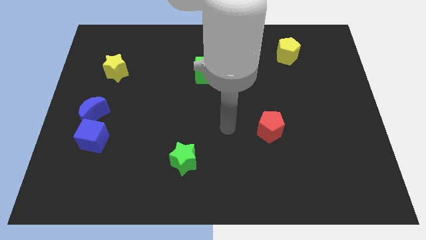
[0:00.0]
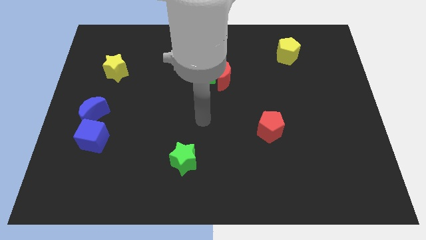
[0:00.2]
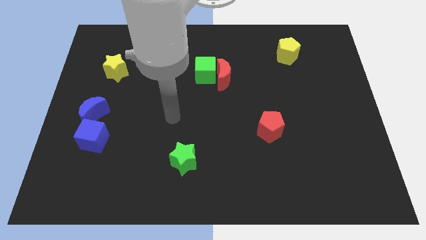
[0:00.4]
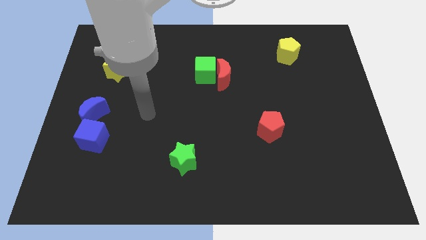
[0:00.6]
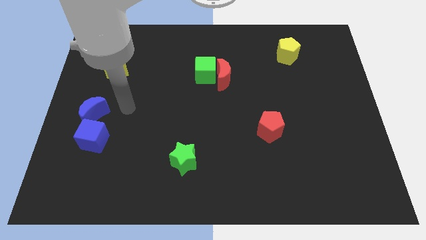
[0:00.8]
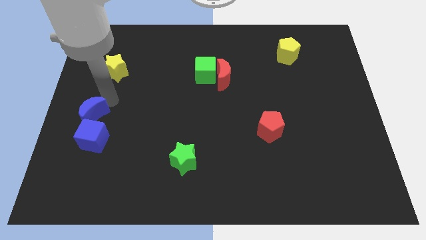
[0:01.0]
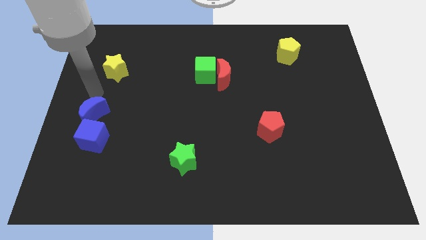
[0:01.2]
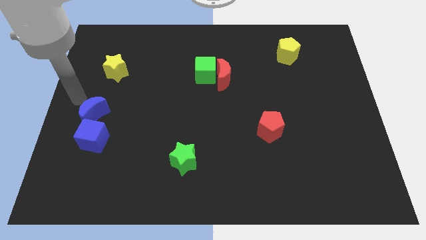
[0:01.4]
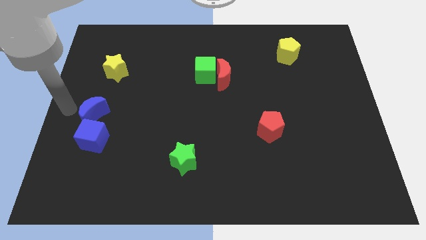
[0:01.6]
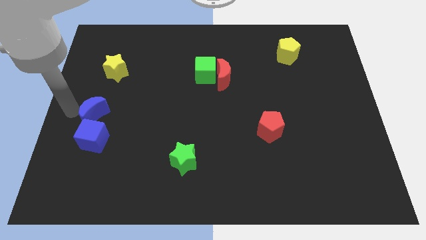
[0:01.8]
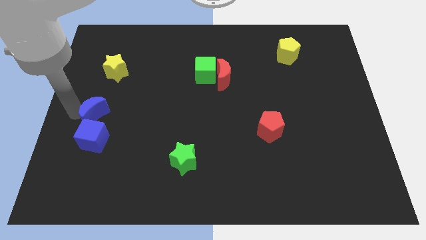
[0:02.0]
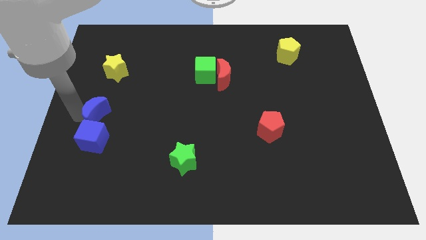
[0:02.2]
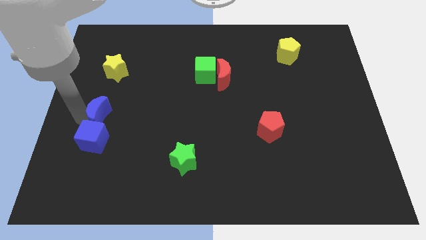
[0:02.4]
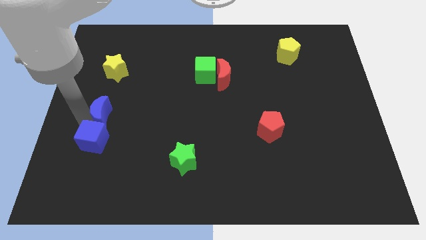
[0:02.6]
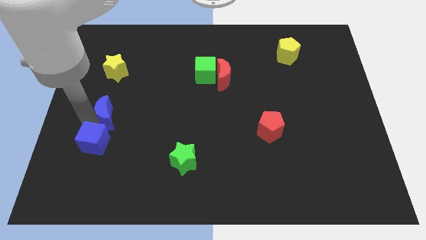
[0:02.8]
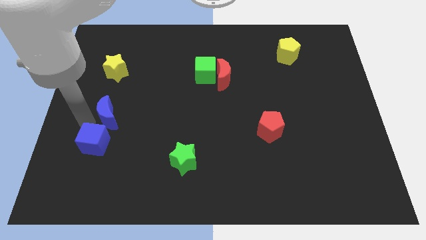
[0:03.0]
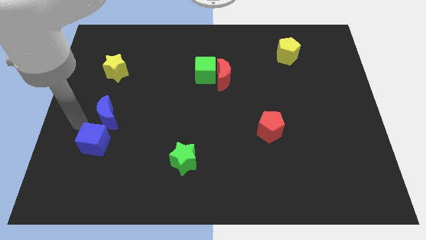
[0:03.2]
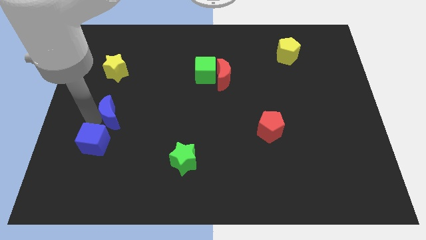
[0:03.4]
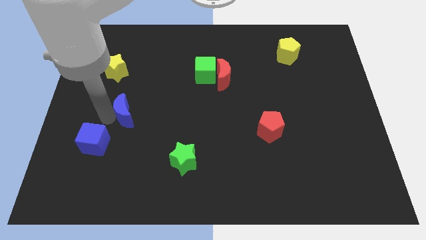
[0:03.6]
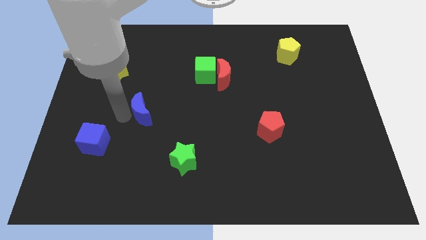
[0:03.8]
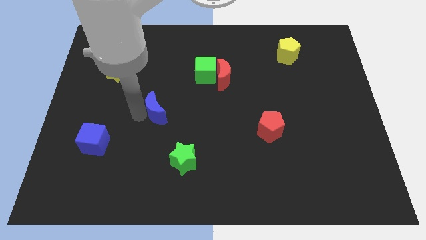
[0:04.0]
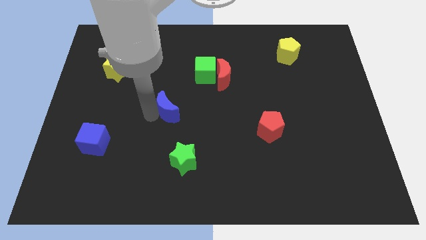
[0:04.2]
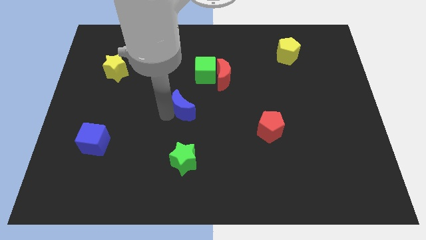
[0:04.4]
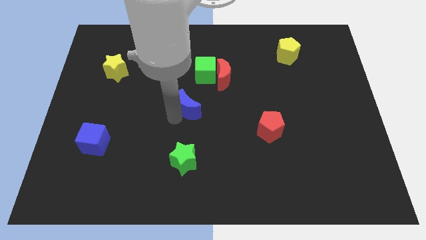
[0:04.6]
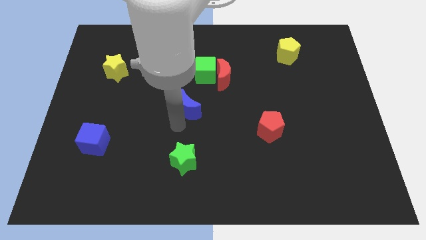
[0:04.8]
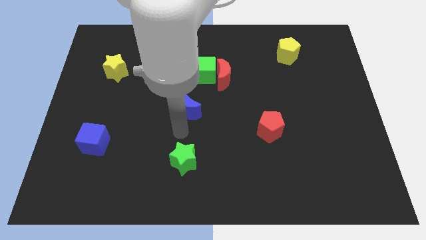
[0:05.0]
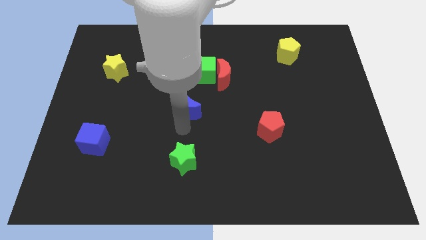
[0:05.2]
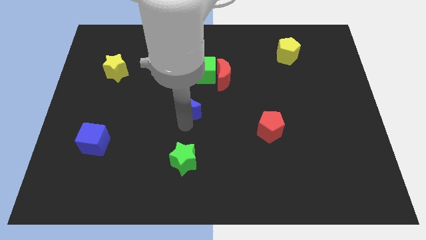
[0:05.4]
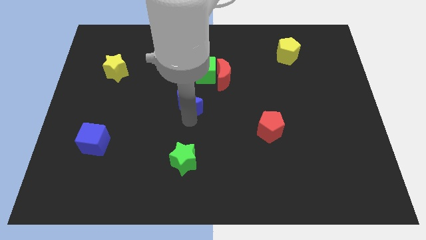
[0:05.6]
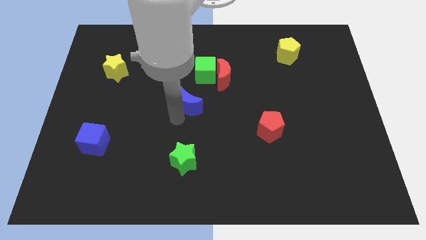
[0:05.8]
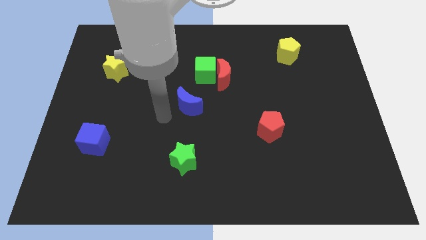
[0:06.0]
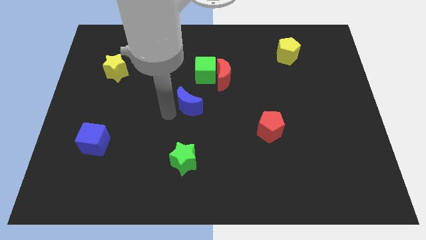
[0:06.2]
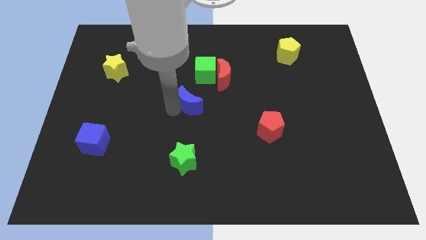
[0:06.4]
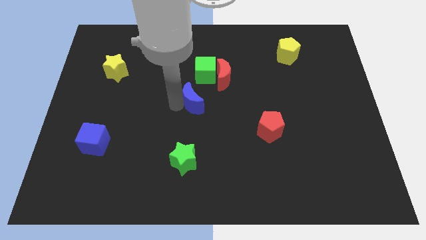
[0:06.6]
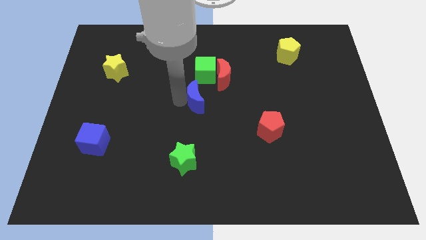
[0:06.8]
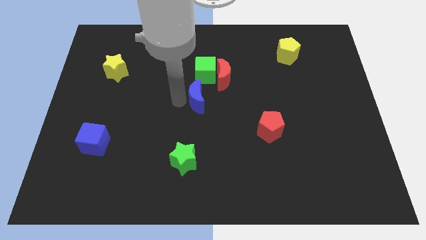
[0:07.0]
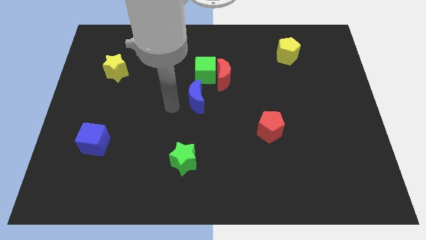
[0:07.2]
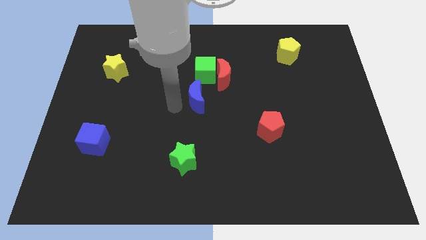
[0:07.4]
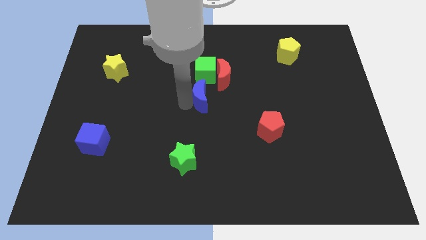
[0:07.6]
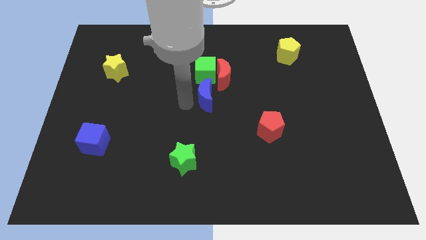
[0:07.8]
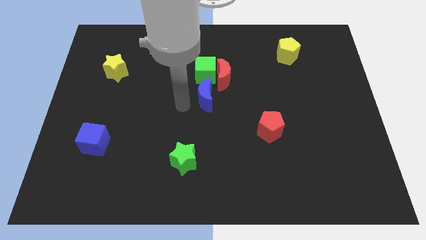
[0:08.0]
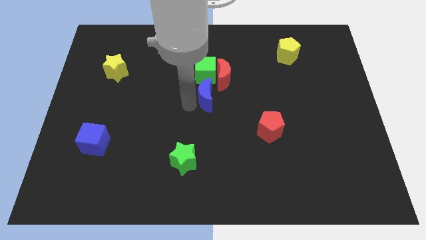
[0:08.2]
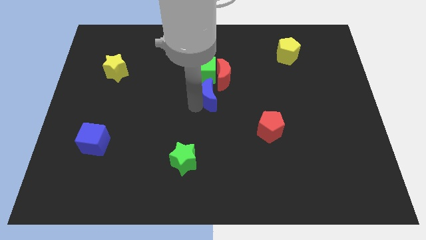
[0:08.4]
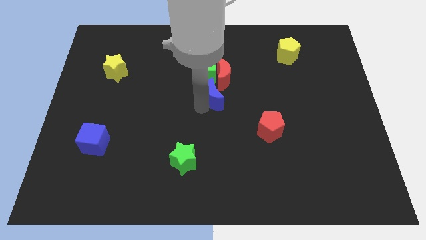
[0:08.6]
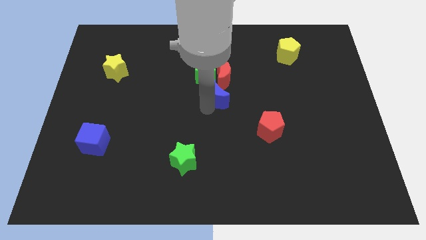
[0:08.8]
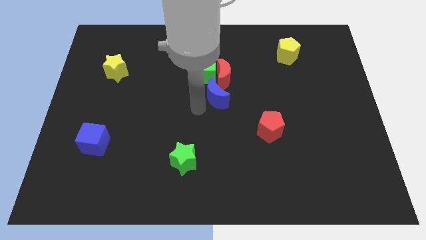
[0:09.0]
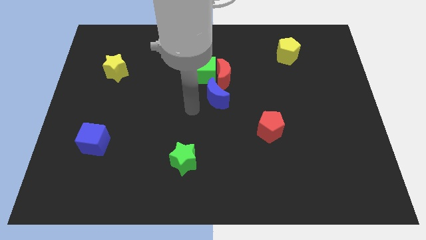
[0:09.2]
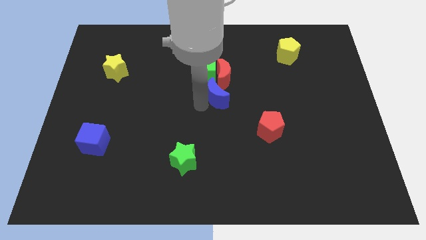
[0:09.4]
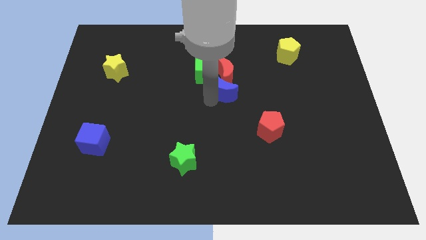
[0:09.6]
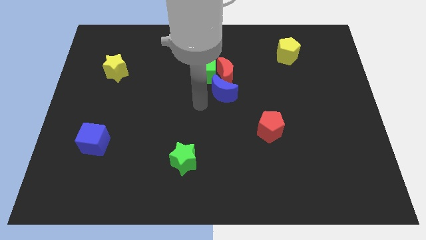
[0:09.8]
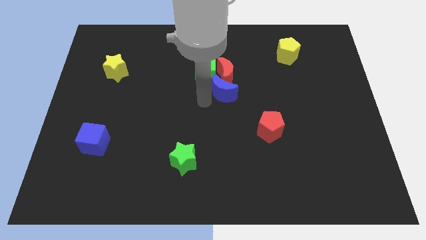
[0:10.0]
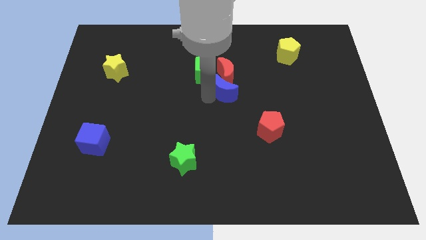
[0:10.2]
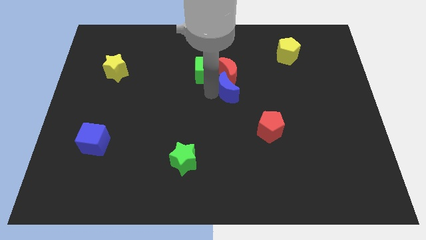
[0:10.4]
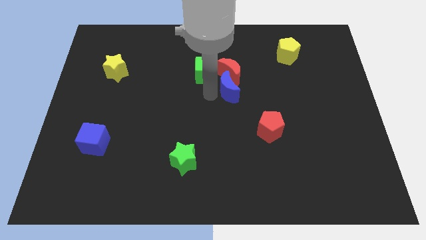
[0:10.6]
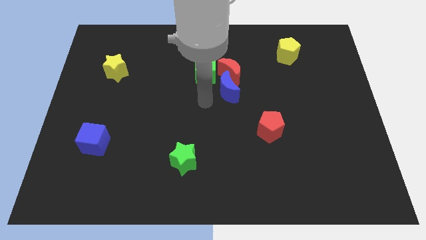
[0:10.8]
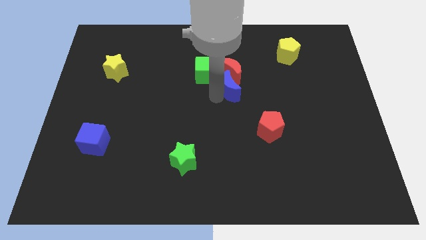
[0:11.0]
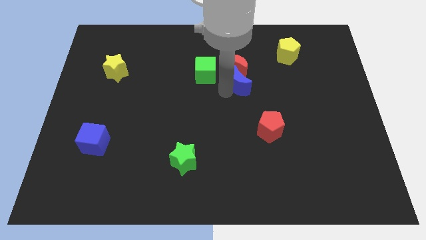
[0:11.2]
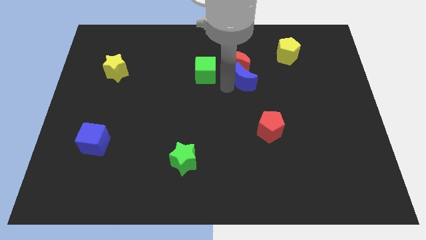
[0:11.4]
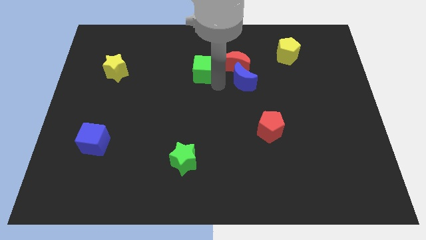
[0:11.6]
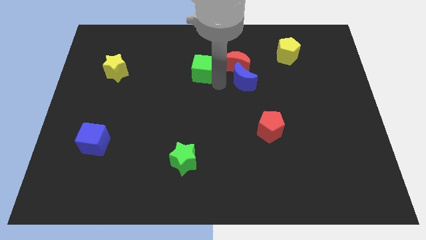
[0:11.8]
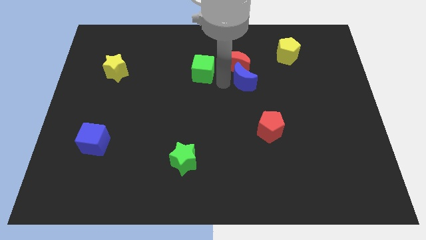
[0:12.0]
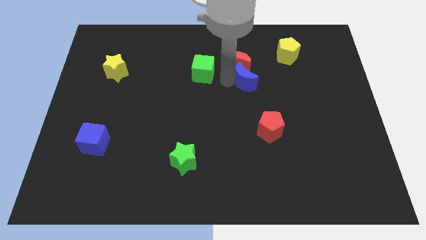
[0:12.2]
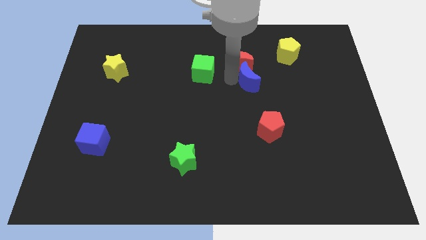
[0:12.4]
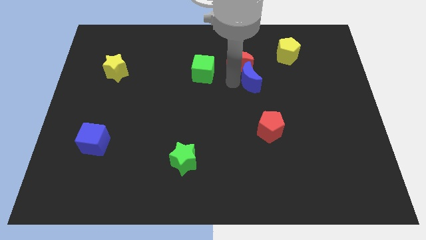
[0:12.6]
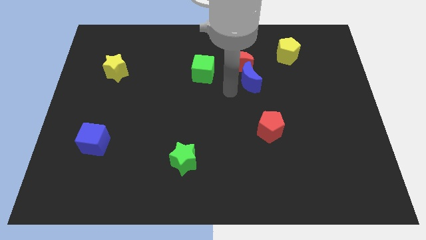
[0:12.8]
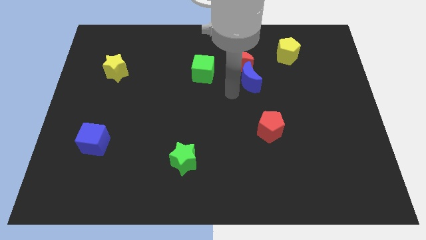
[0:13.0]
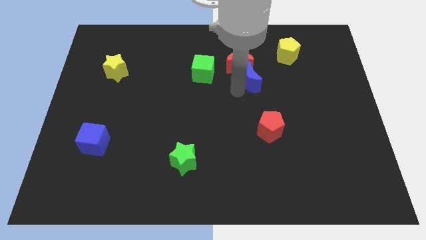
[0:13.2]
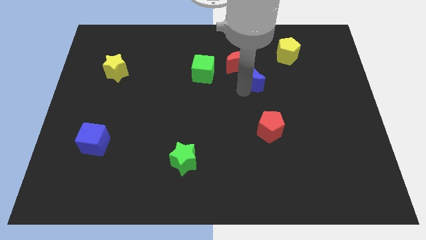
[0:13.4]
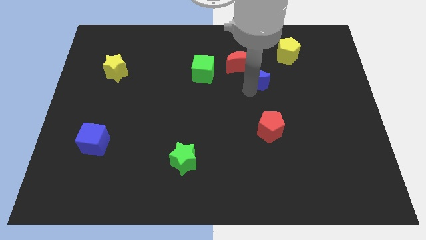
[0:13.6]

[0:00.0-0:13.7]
push the blue moon diagonally down and to the left of the yellow pentagon

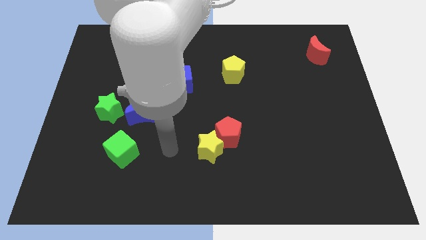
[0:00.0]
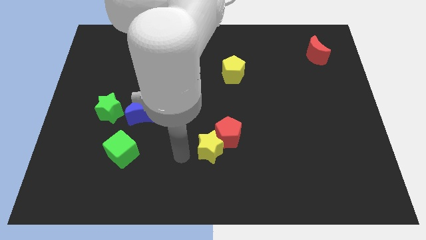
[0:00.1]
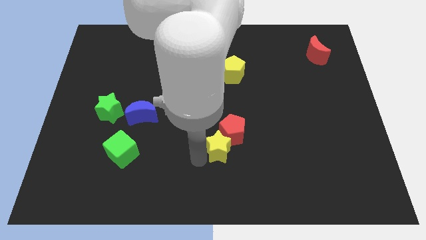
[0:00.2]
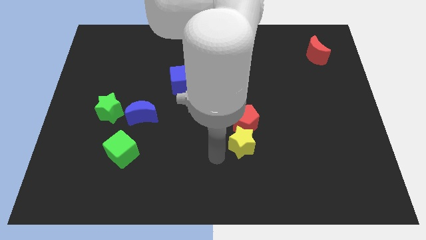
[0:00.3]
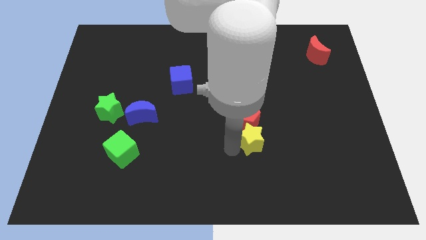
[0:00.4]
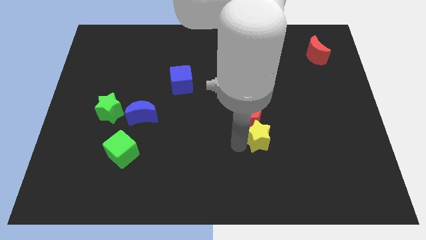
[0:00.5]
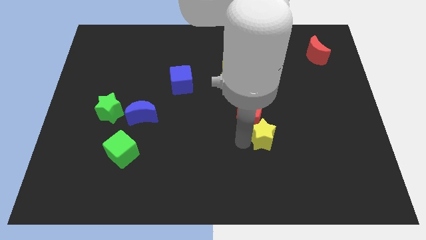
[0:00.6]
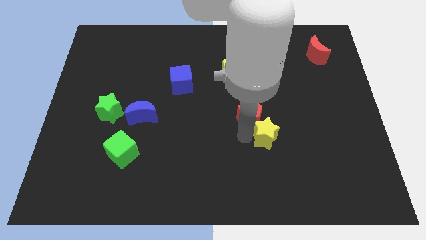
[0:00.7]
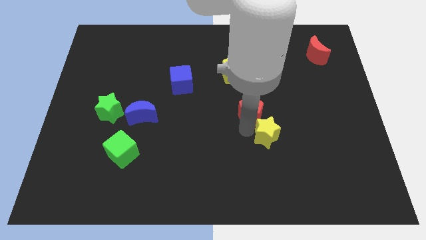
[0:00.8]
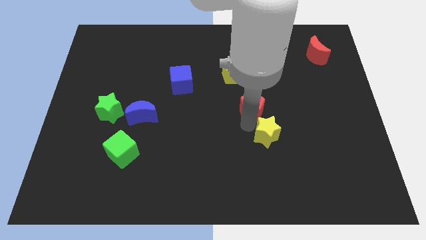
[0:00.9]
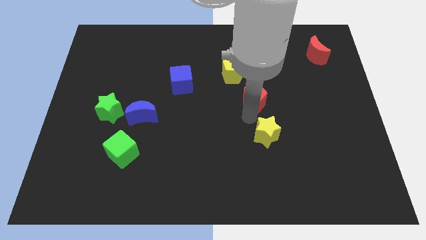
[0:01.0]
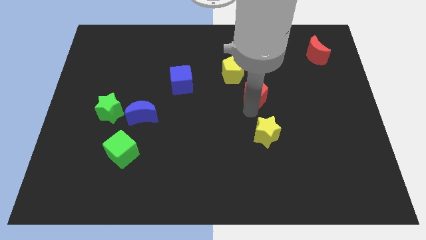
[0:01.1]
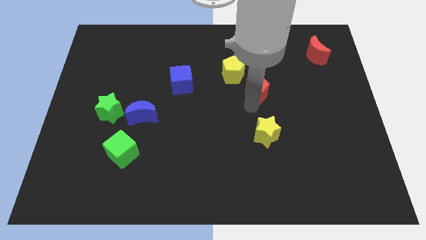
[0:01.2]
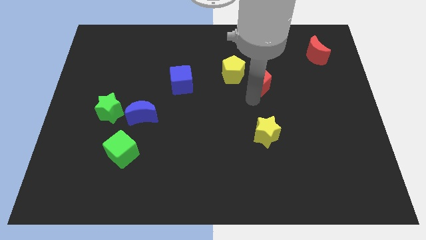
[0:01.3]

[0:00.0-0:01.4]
push the red pentagon just right of the yellow pentagon
